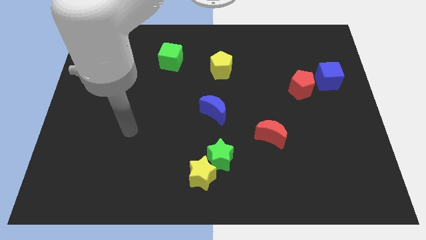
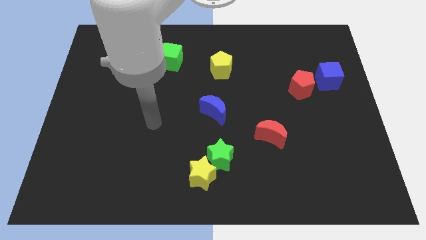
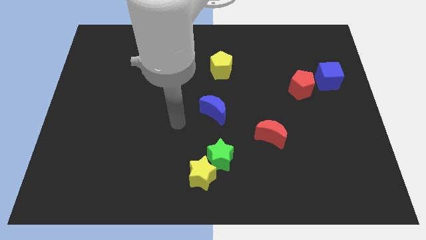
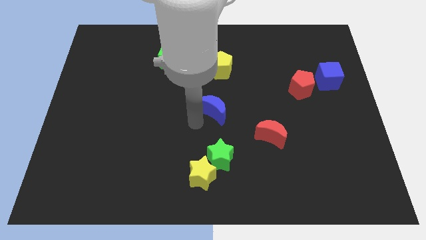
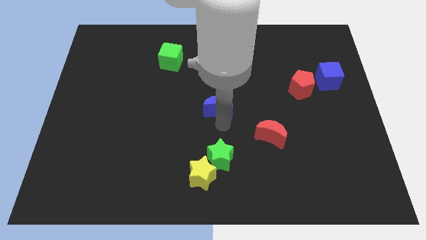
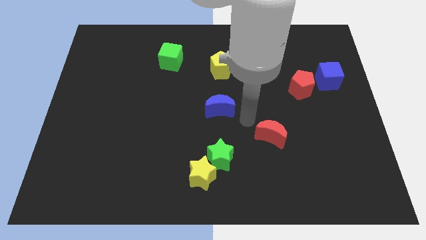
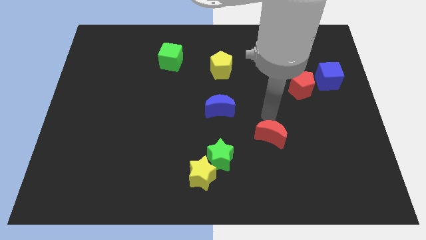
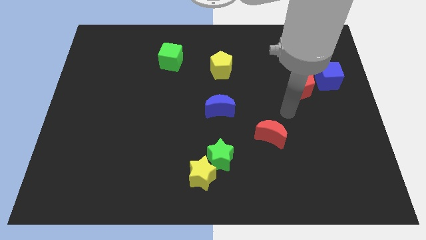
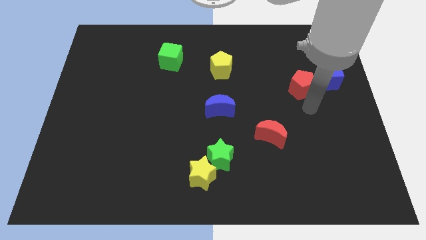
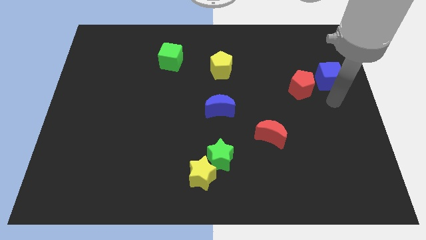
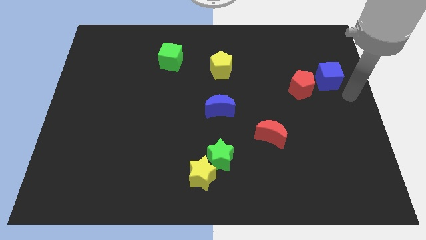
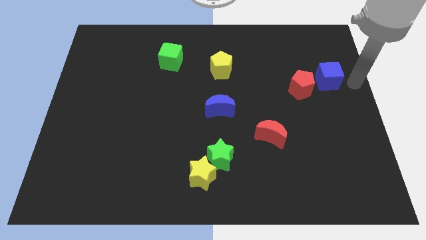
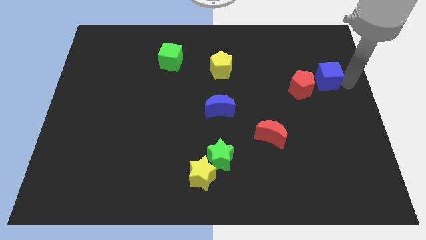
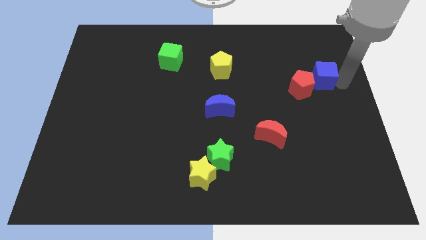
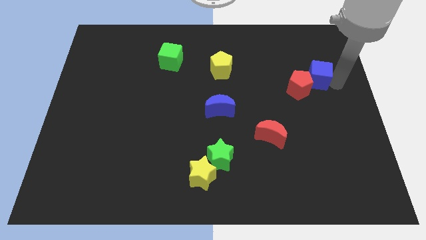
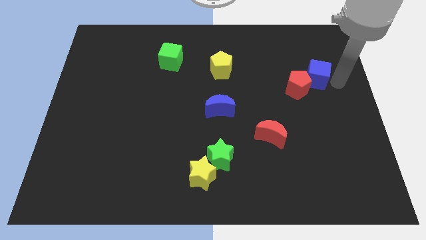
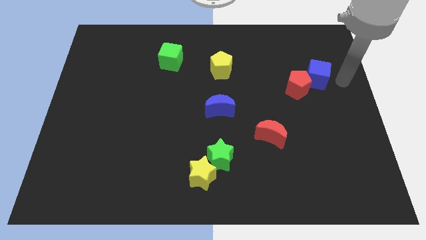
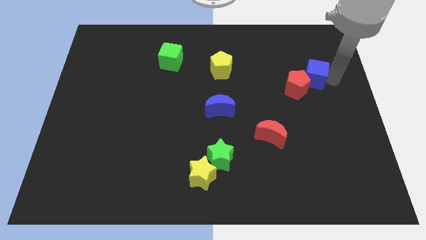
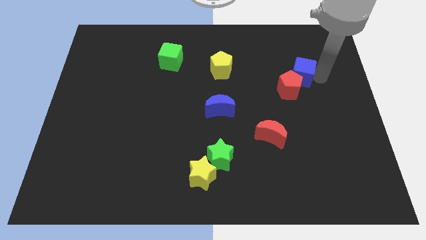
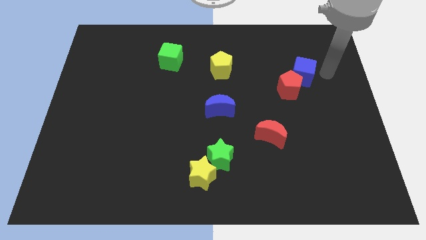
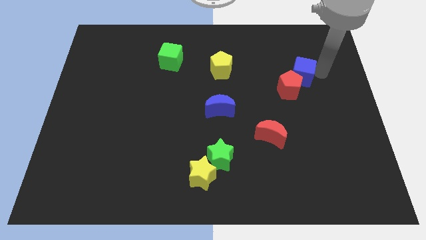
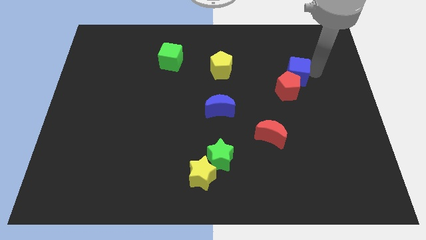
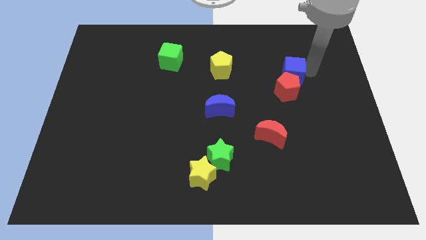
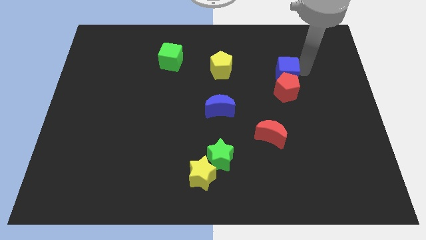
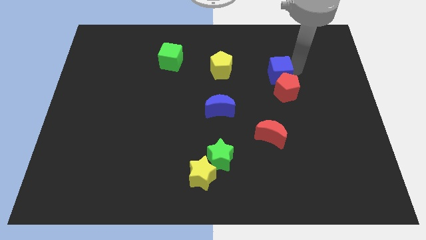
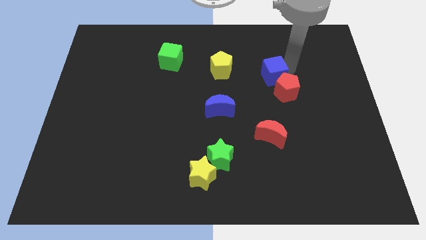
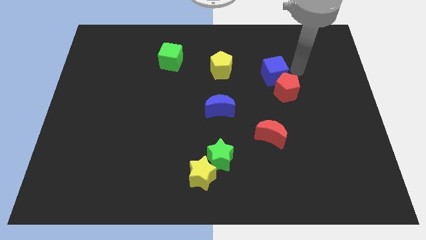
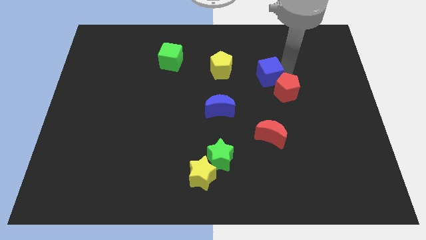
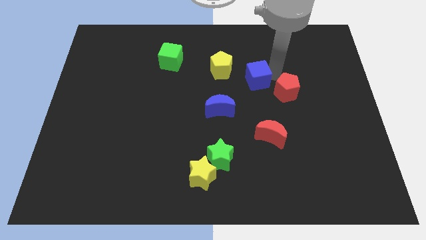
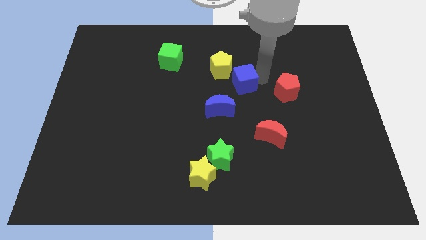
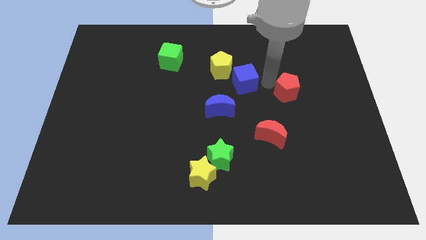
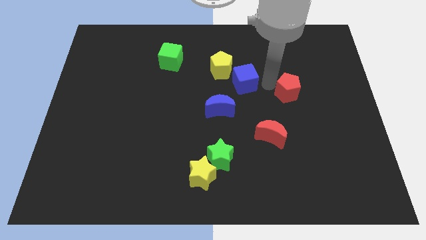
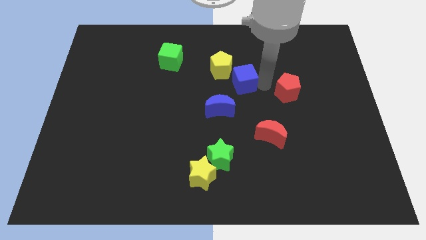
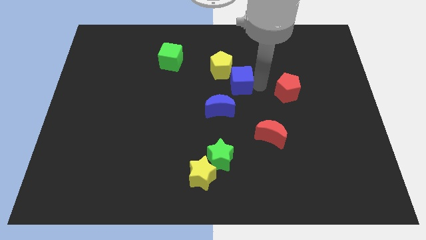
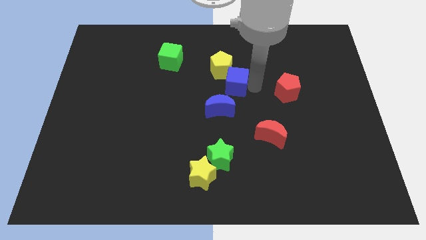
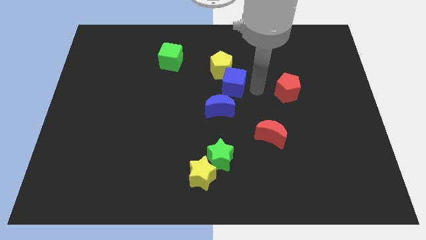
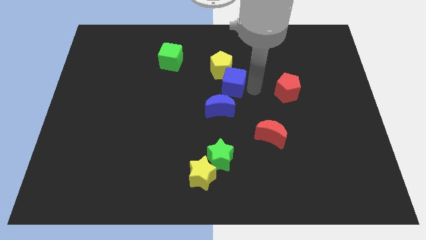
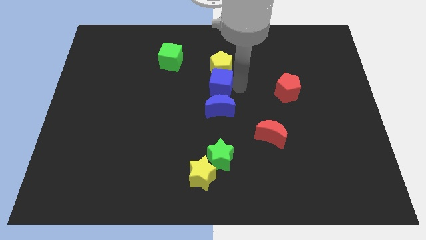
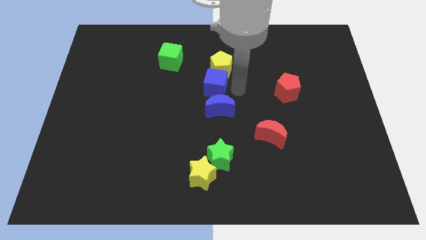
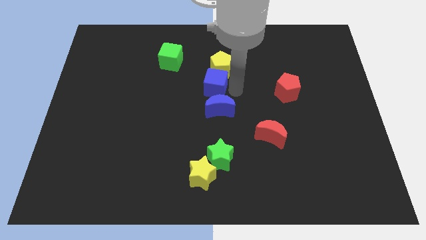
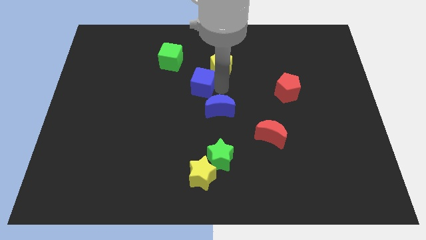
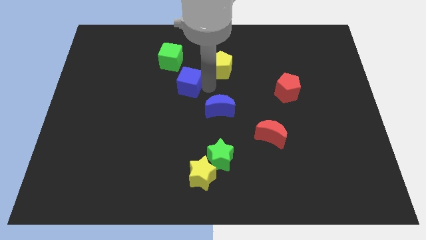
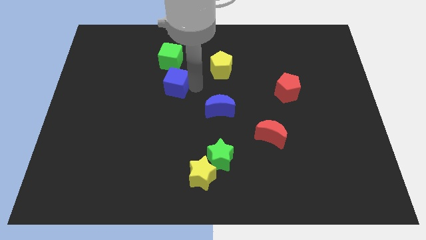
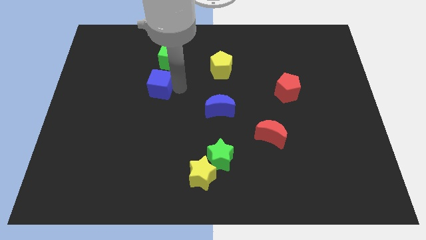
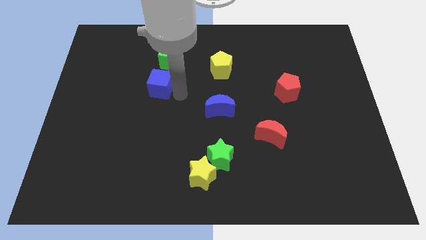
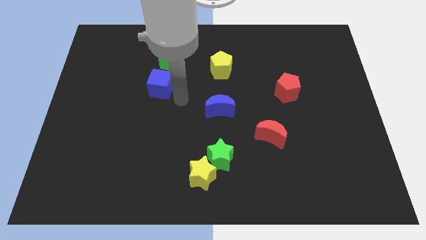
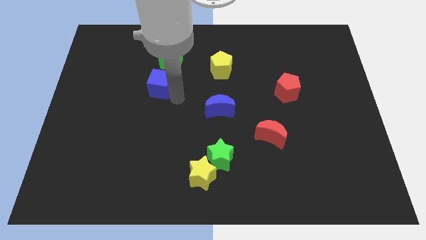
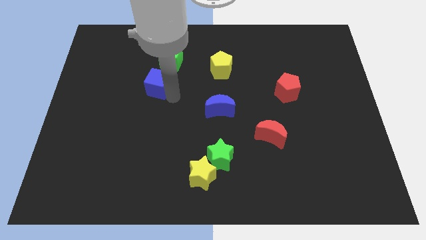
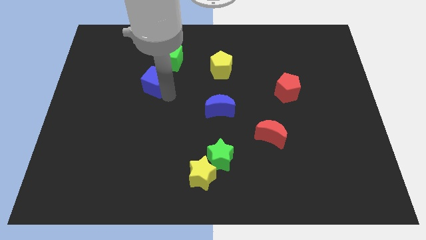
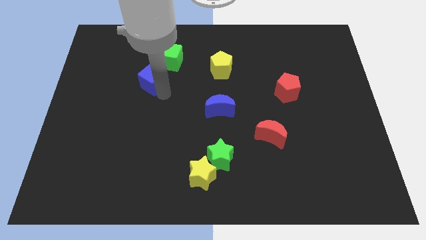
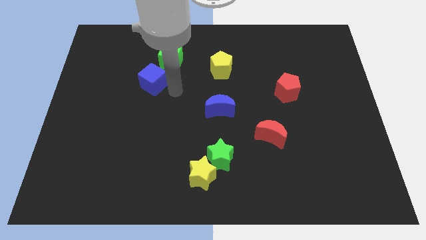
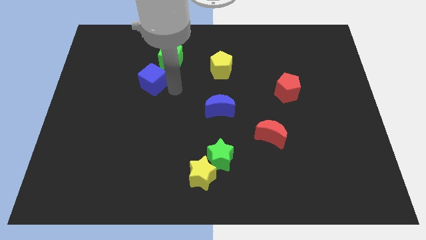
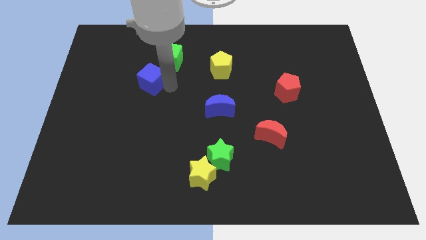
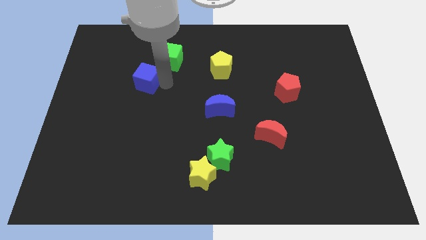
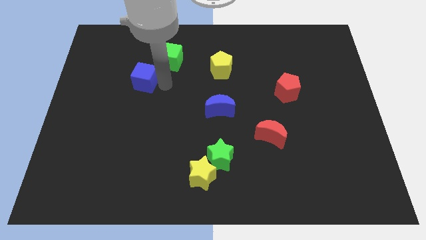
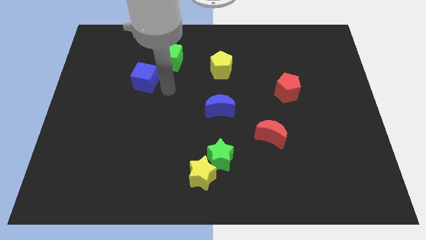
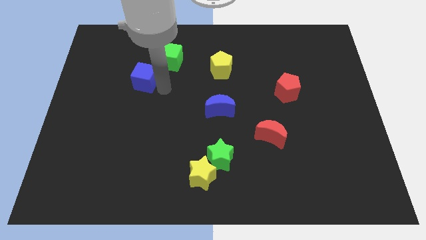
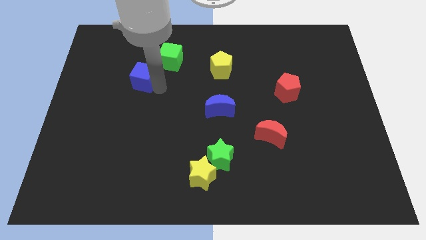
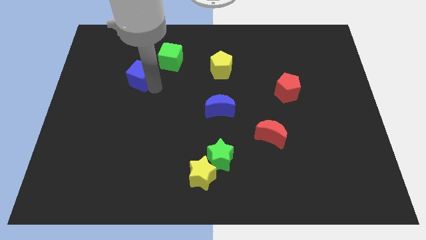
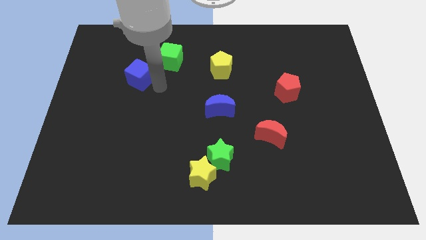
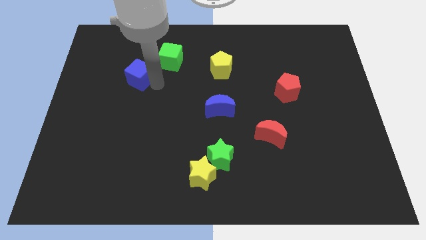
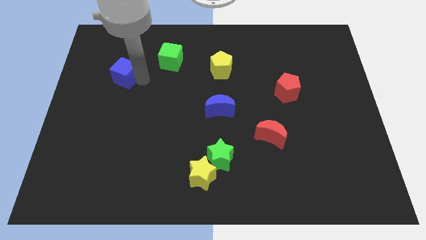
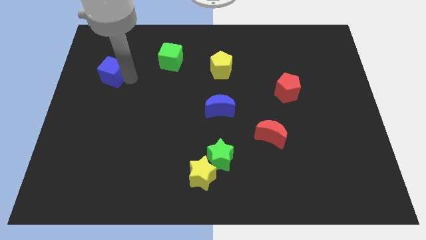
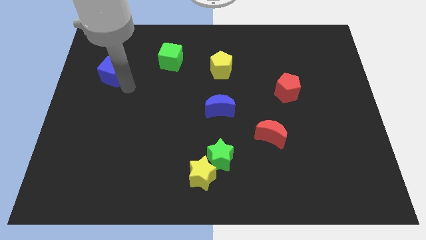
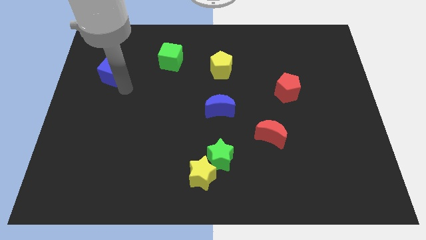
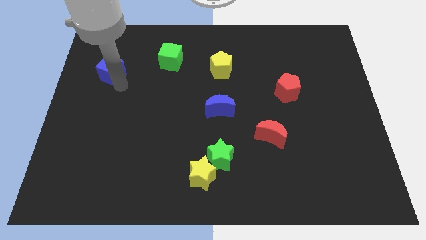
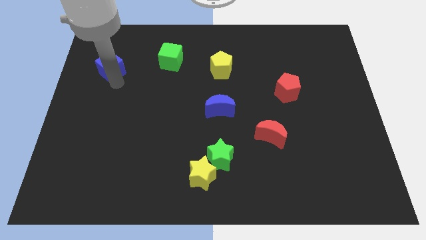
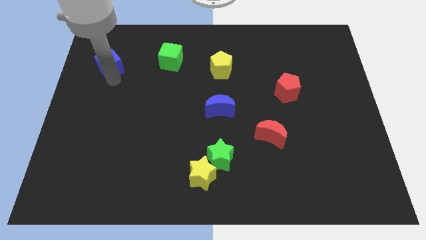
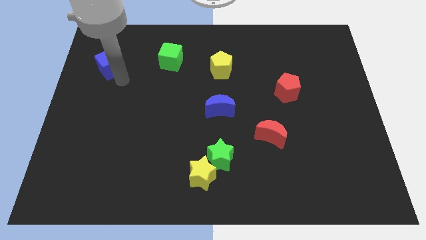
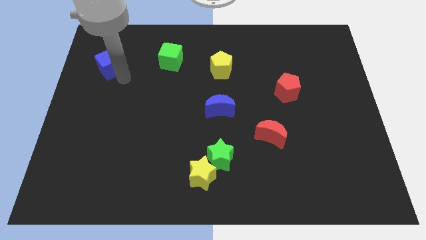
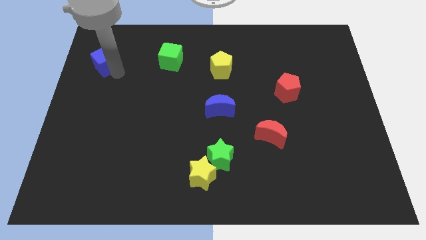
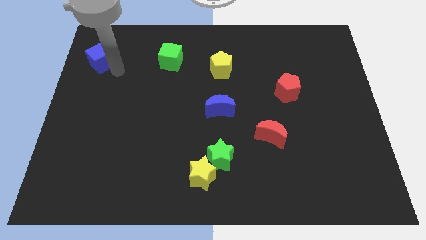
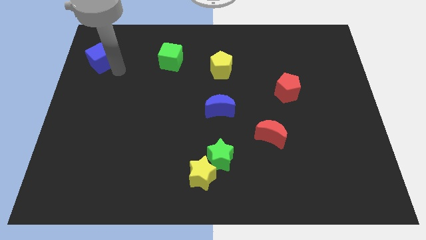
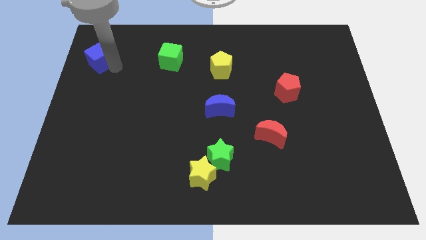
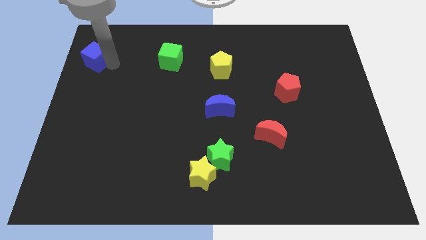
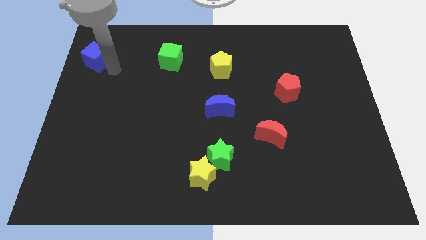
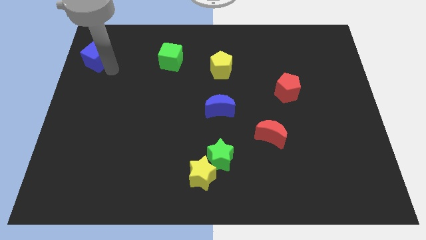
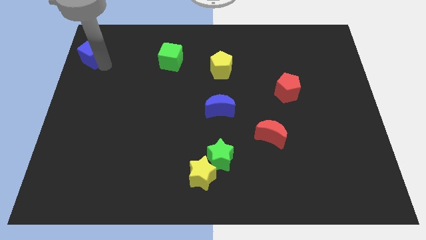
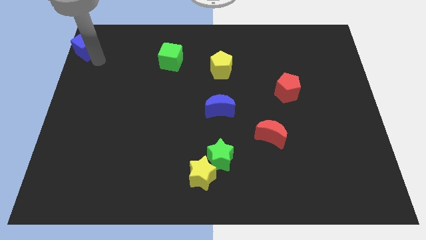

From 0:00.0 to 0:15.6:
move the blue cube to the top left corner
